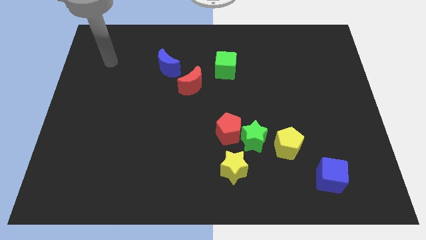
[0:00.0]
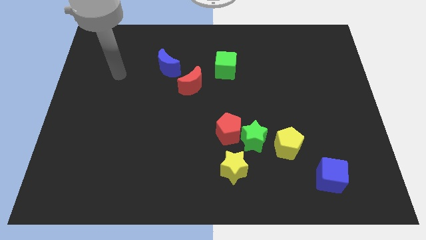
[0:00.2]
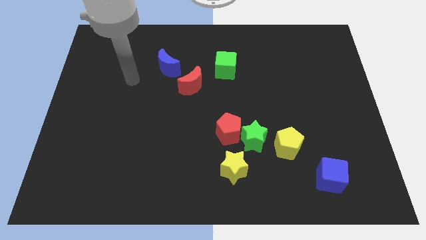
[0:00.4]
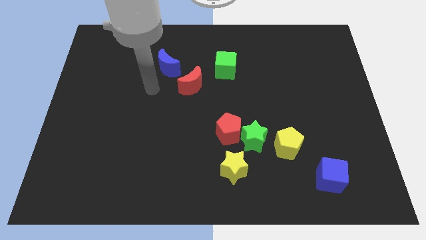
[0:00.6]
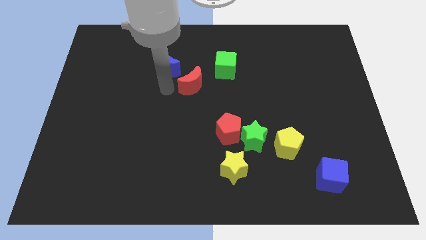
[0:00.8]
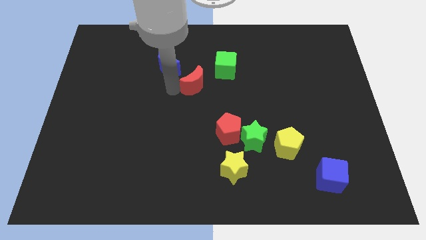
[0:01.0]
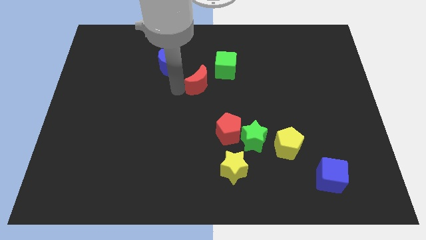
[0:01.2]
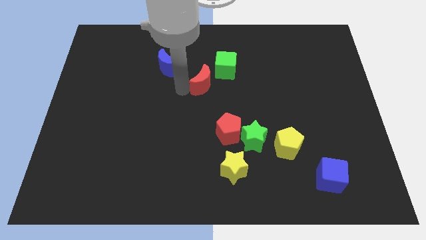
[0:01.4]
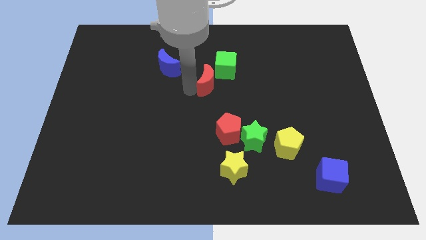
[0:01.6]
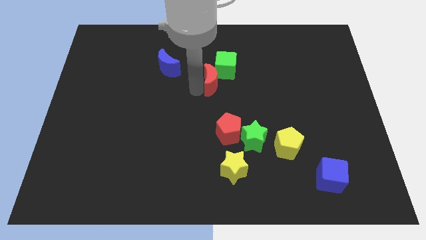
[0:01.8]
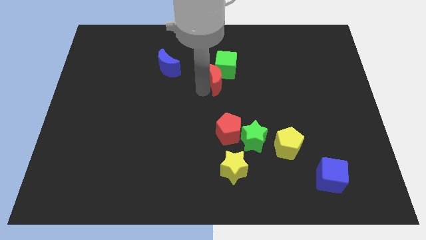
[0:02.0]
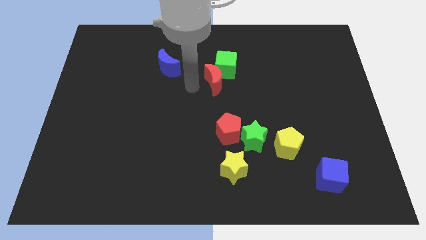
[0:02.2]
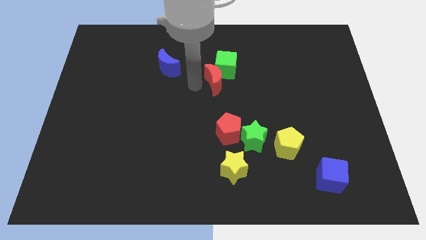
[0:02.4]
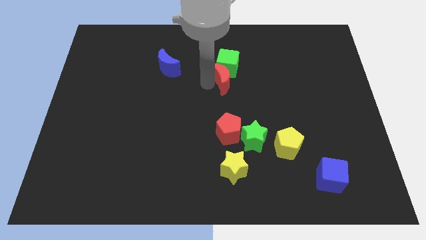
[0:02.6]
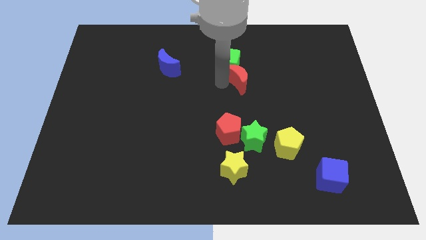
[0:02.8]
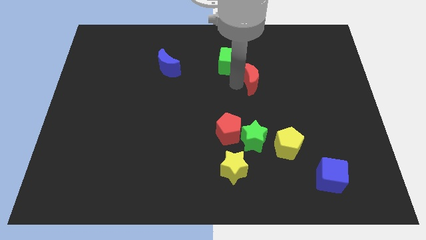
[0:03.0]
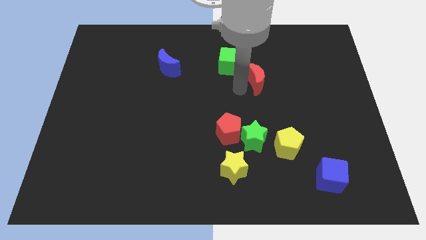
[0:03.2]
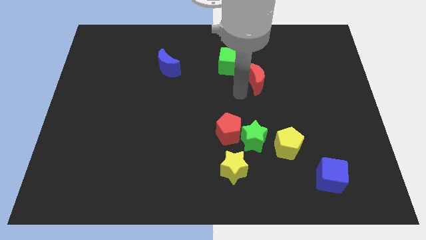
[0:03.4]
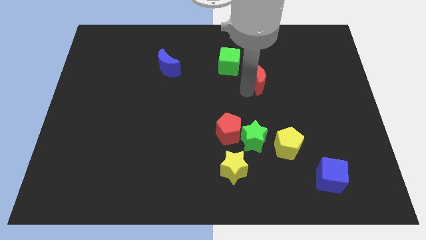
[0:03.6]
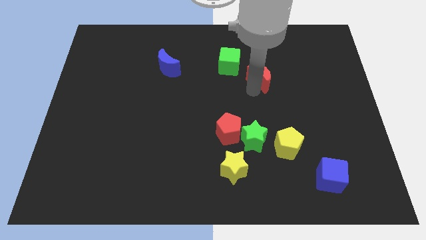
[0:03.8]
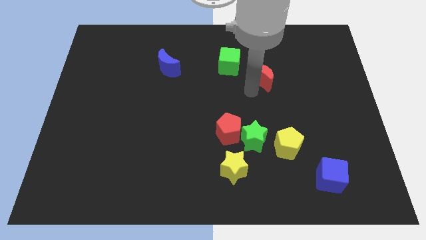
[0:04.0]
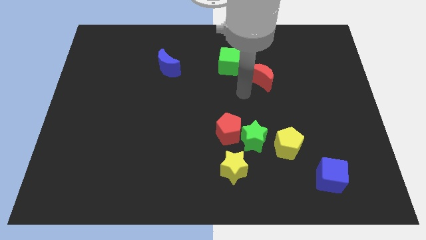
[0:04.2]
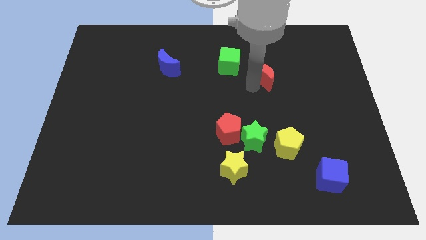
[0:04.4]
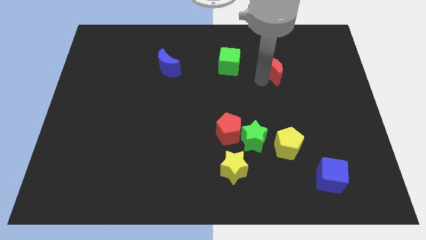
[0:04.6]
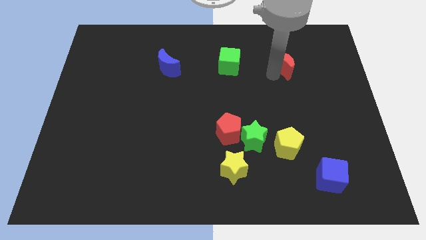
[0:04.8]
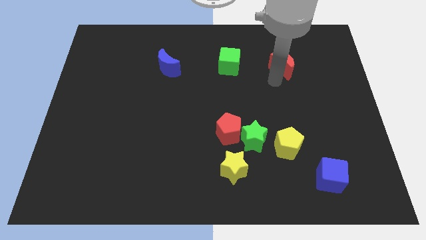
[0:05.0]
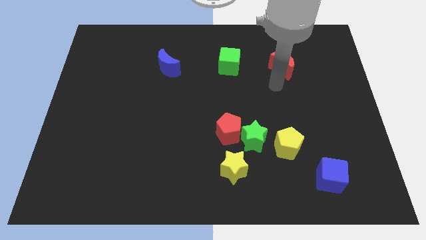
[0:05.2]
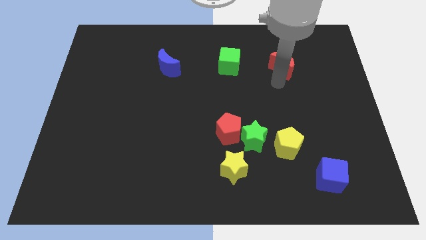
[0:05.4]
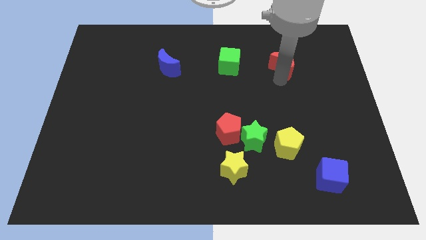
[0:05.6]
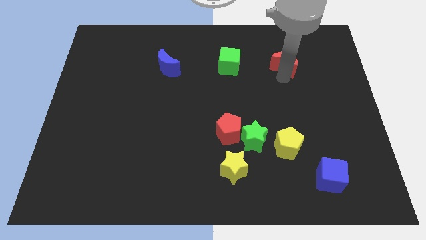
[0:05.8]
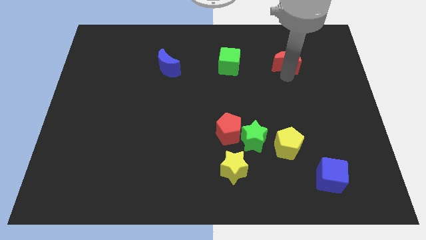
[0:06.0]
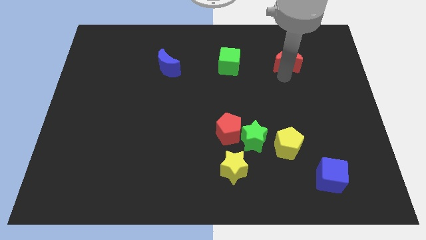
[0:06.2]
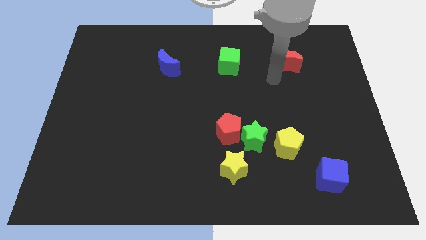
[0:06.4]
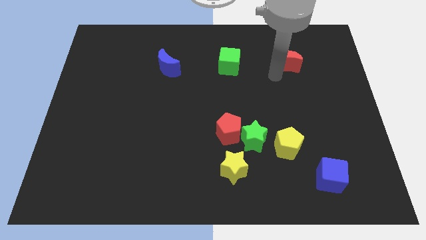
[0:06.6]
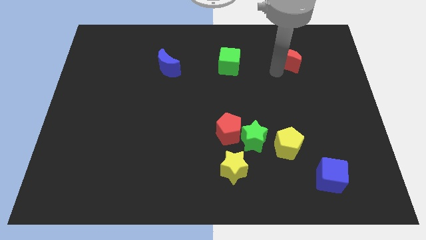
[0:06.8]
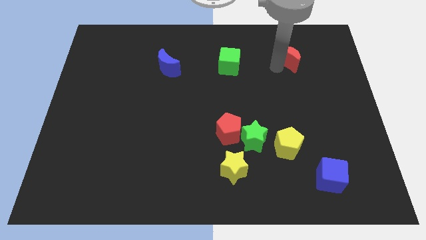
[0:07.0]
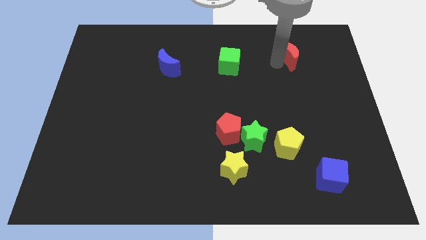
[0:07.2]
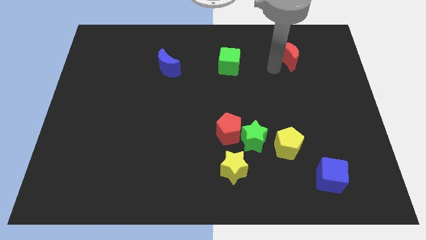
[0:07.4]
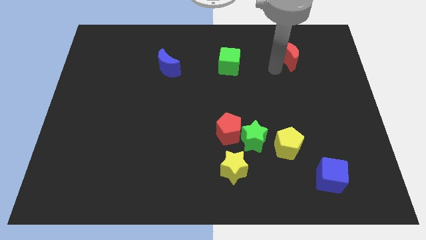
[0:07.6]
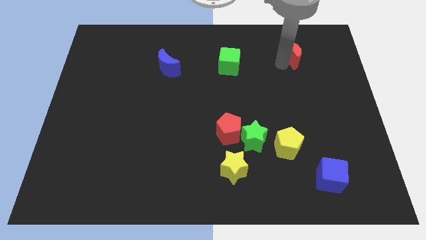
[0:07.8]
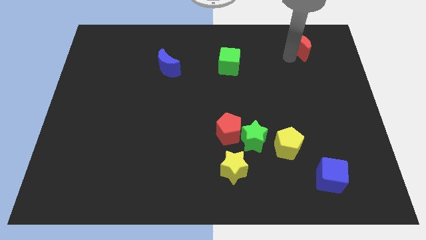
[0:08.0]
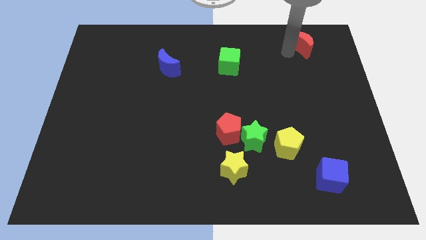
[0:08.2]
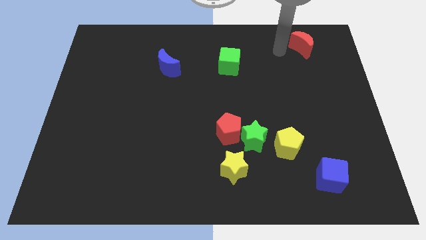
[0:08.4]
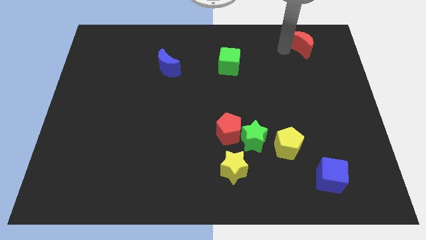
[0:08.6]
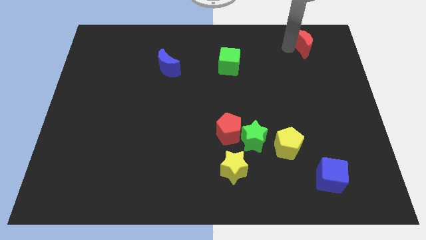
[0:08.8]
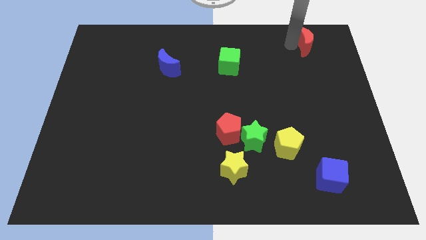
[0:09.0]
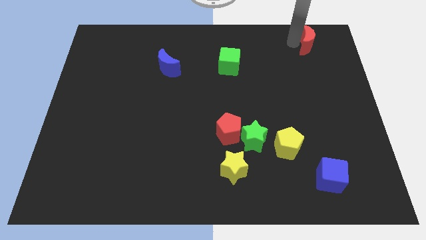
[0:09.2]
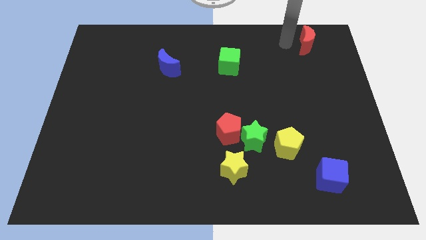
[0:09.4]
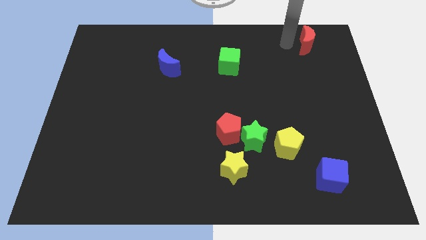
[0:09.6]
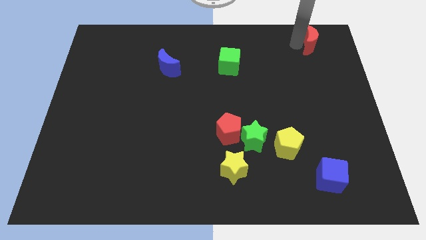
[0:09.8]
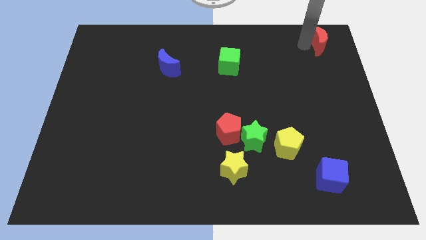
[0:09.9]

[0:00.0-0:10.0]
put the red moon to the top right

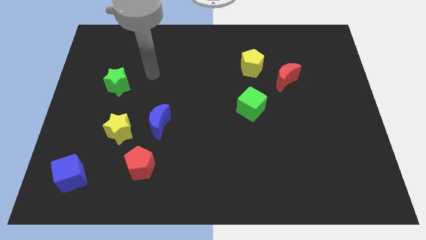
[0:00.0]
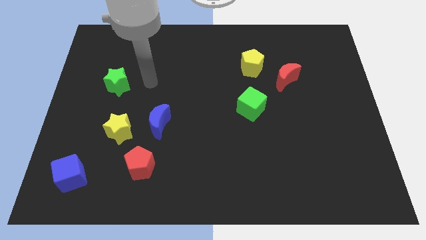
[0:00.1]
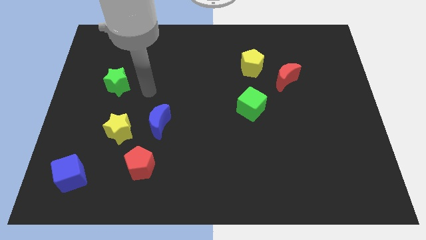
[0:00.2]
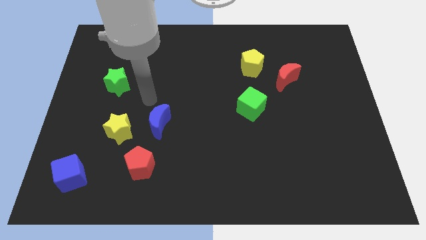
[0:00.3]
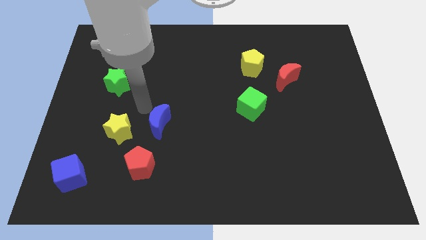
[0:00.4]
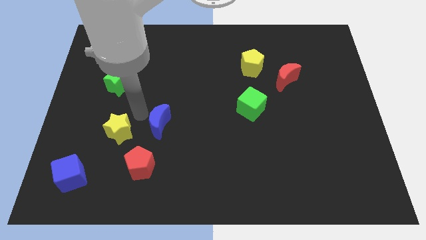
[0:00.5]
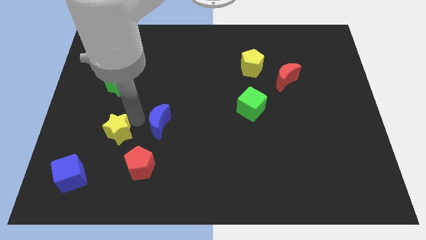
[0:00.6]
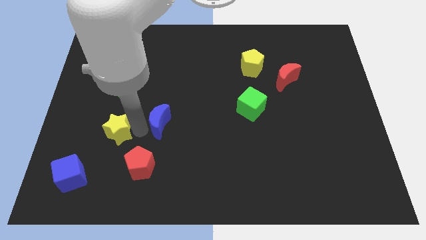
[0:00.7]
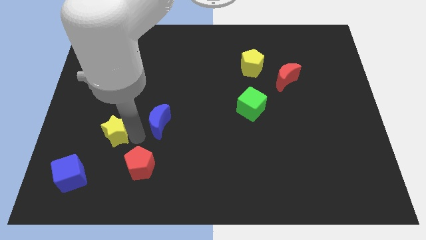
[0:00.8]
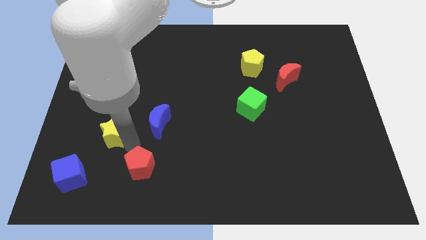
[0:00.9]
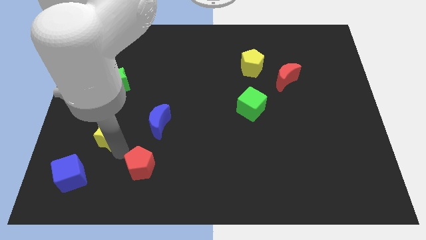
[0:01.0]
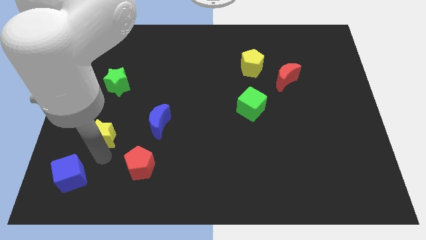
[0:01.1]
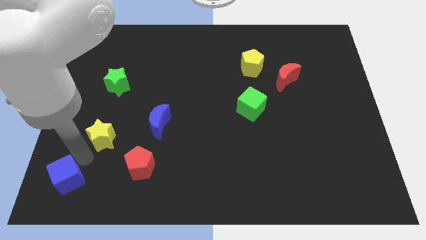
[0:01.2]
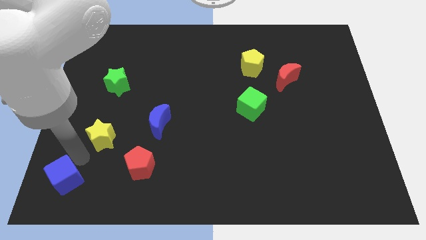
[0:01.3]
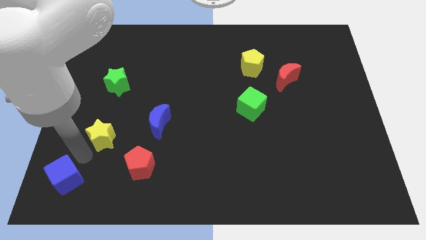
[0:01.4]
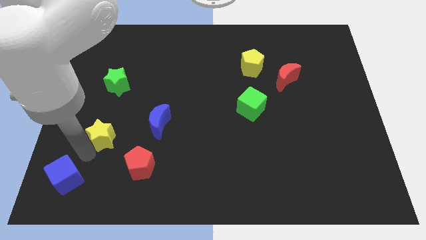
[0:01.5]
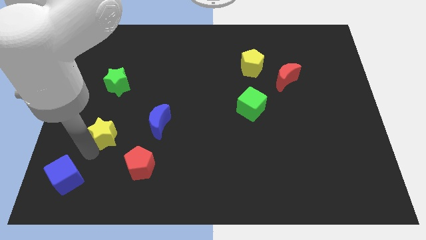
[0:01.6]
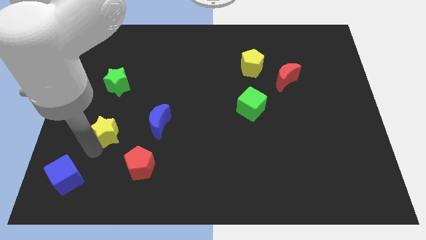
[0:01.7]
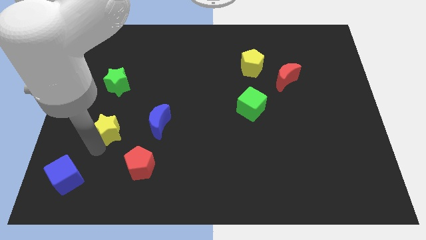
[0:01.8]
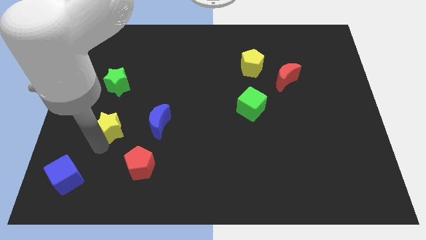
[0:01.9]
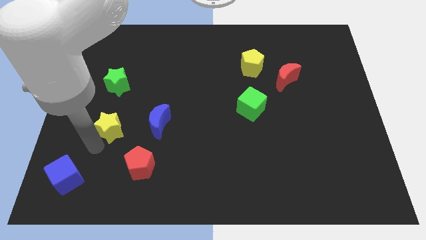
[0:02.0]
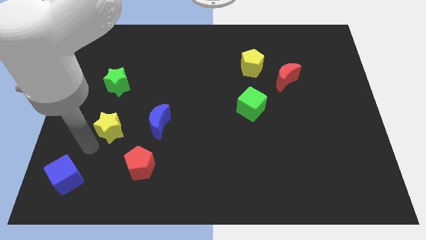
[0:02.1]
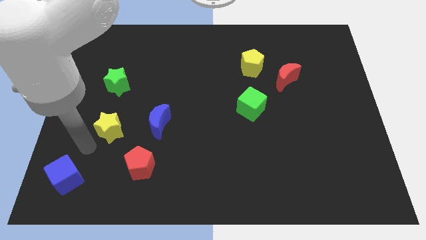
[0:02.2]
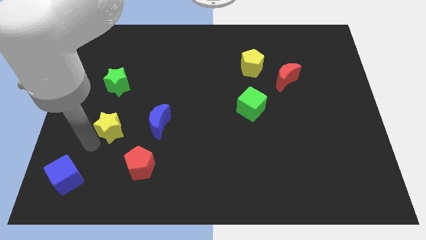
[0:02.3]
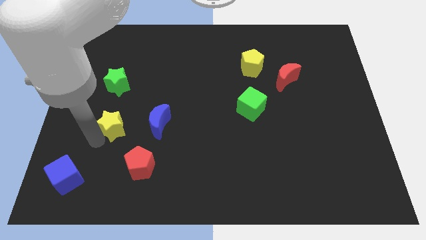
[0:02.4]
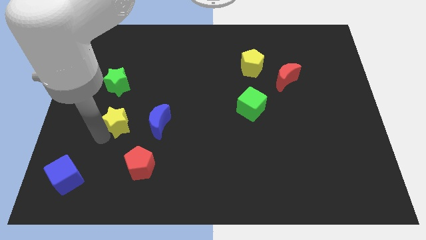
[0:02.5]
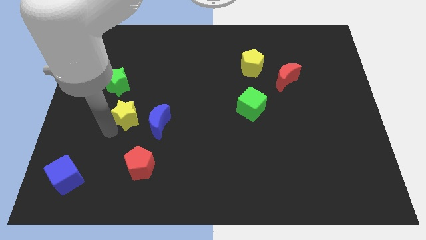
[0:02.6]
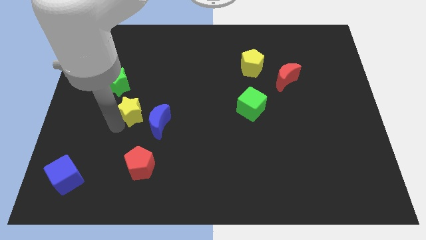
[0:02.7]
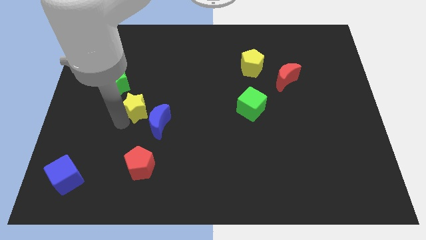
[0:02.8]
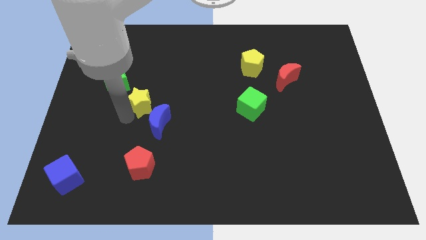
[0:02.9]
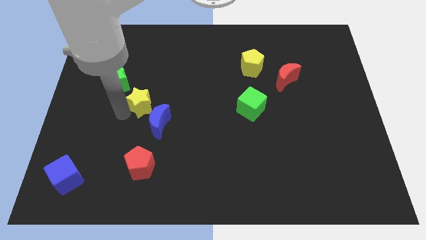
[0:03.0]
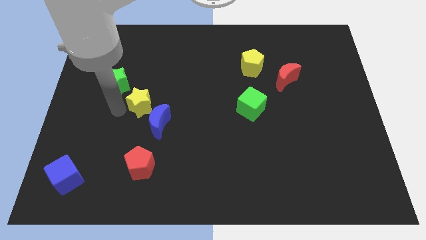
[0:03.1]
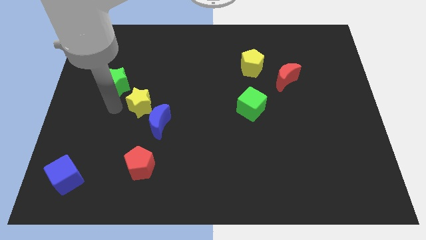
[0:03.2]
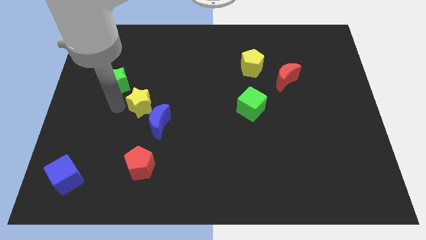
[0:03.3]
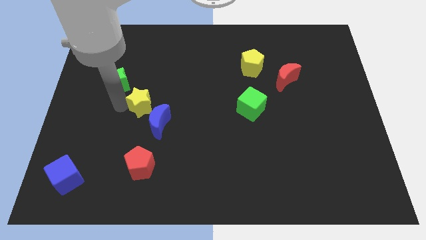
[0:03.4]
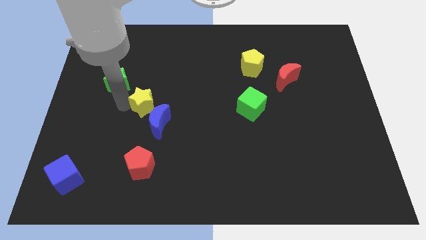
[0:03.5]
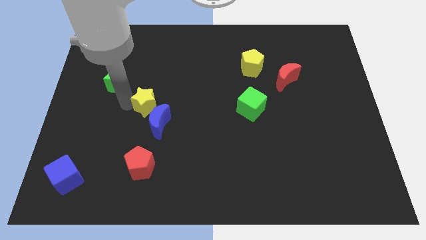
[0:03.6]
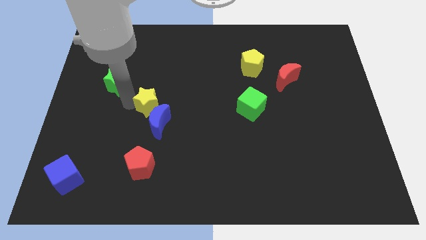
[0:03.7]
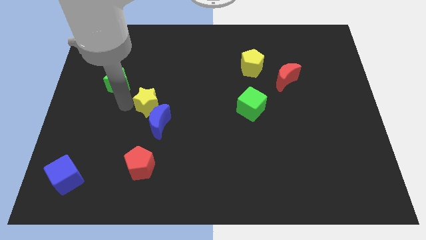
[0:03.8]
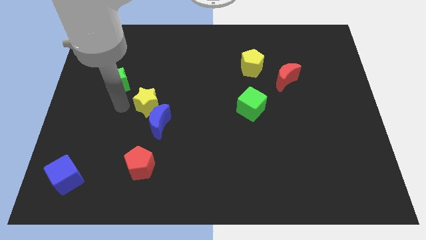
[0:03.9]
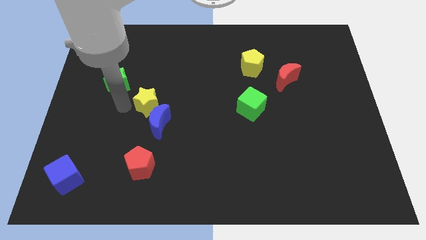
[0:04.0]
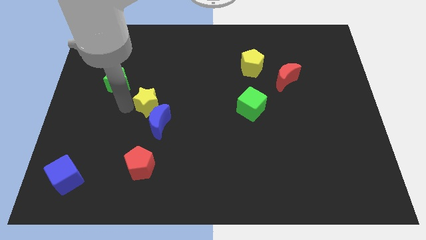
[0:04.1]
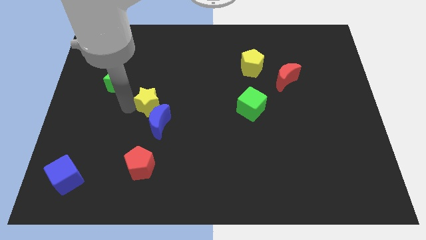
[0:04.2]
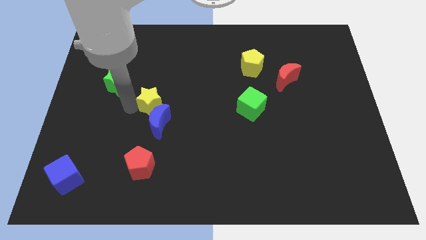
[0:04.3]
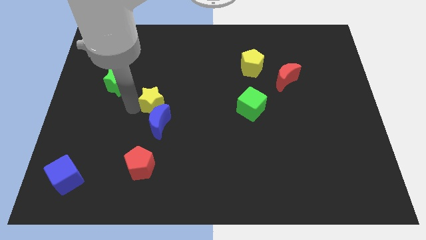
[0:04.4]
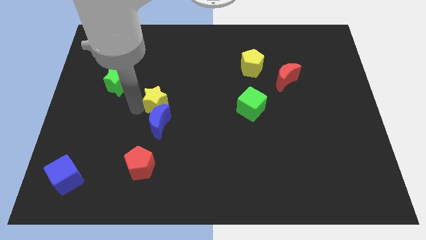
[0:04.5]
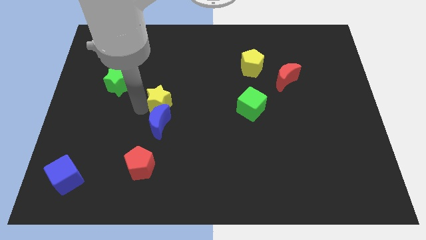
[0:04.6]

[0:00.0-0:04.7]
move the yellow star to the center
